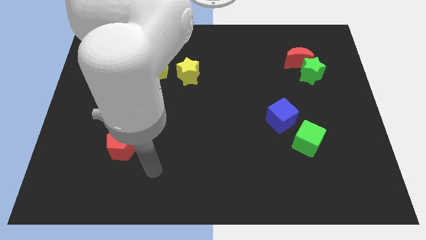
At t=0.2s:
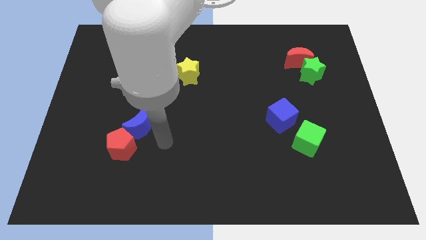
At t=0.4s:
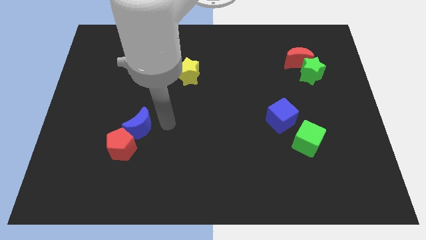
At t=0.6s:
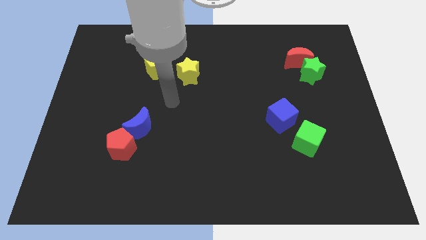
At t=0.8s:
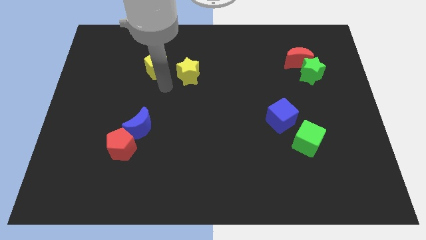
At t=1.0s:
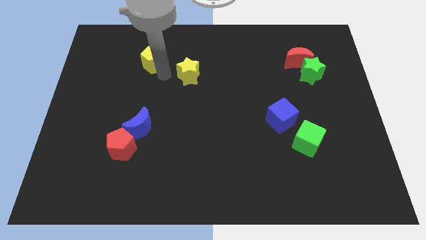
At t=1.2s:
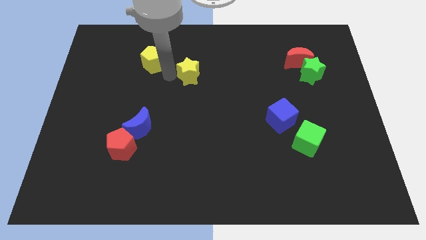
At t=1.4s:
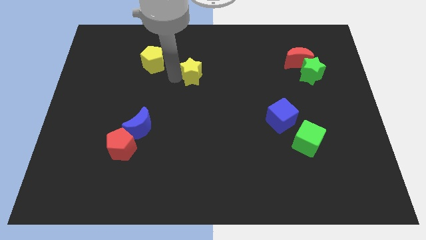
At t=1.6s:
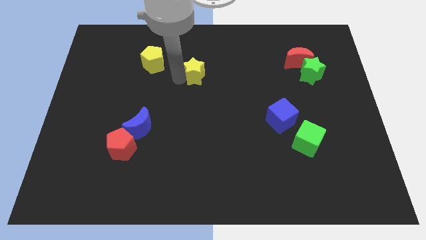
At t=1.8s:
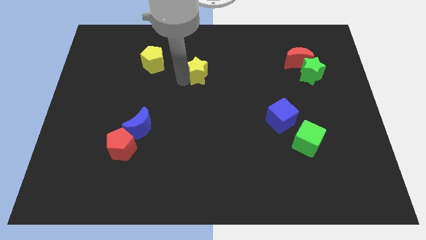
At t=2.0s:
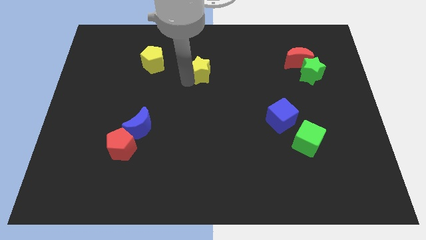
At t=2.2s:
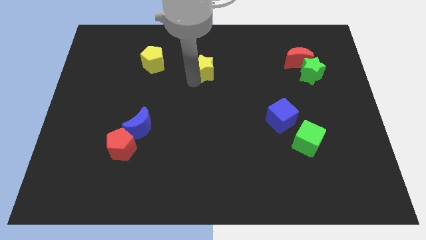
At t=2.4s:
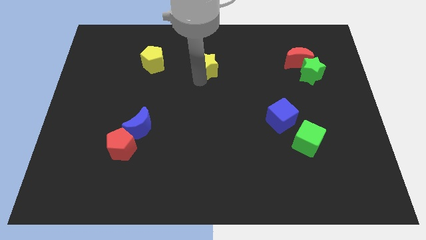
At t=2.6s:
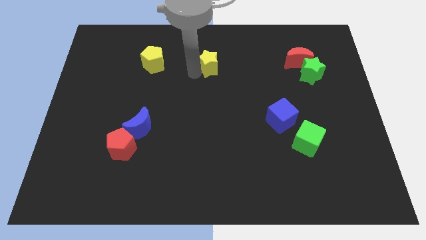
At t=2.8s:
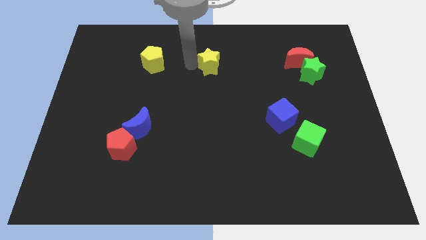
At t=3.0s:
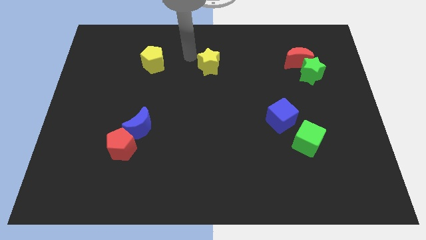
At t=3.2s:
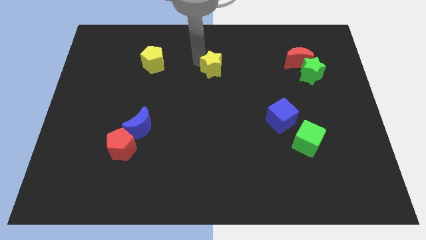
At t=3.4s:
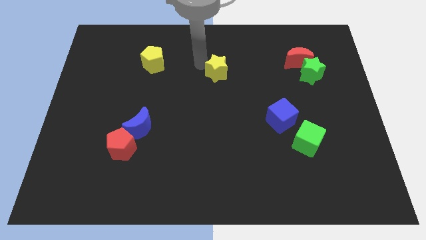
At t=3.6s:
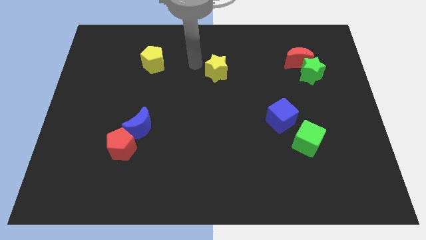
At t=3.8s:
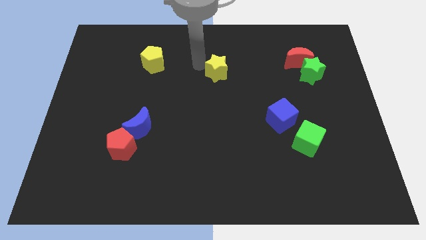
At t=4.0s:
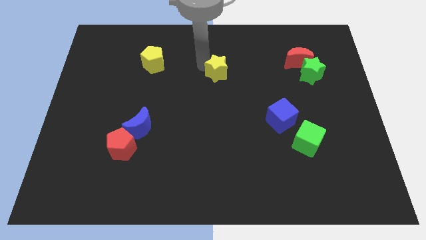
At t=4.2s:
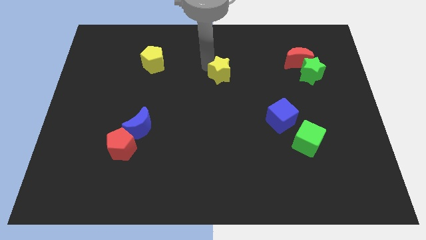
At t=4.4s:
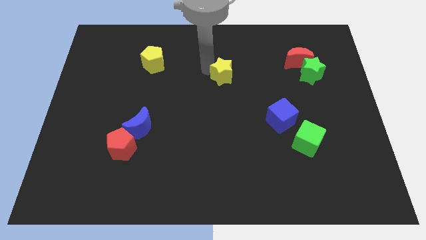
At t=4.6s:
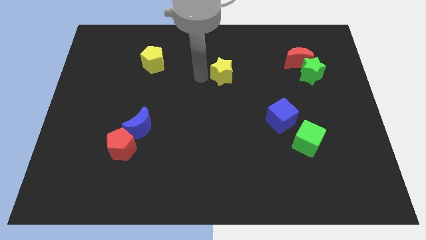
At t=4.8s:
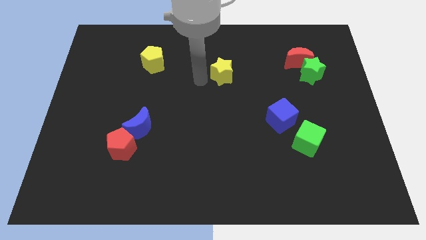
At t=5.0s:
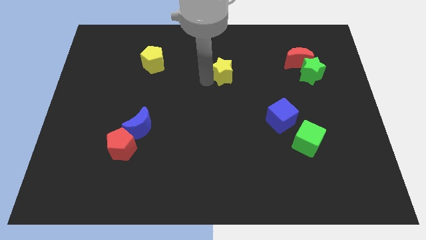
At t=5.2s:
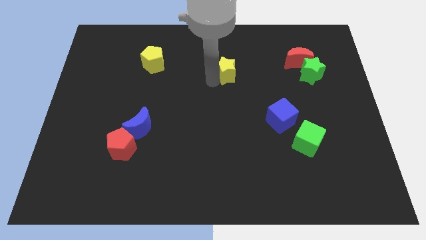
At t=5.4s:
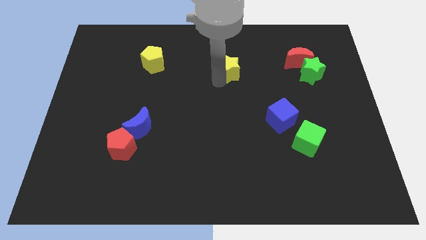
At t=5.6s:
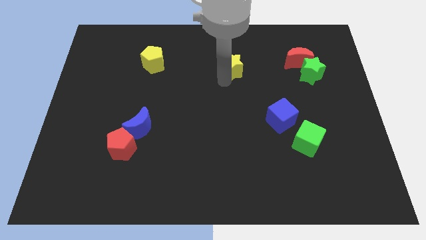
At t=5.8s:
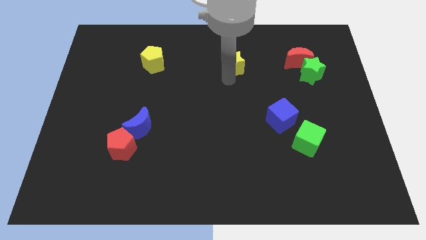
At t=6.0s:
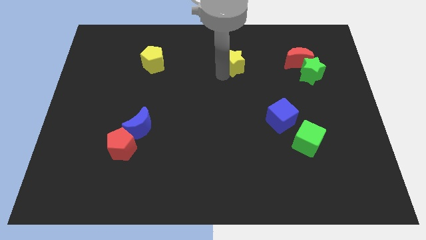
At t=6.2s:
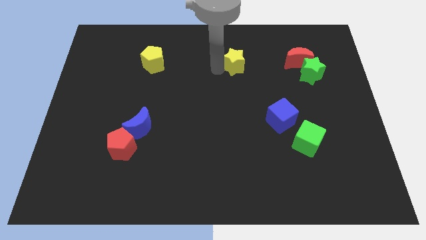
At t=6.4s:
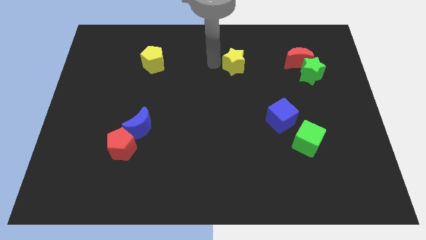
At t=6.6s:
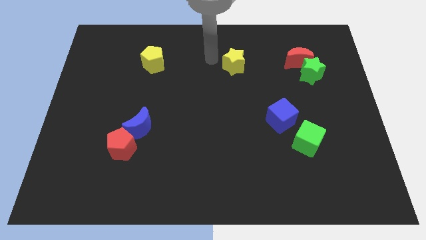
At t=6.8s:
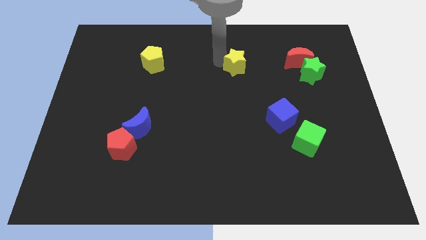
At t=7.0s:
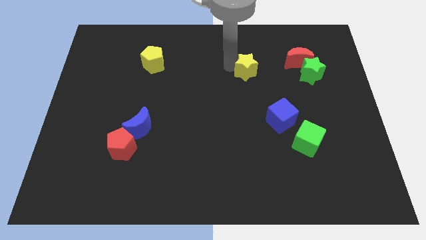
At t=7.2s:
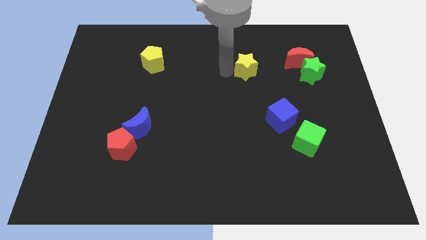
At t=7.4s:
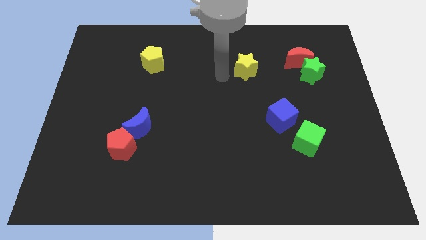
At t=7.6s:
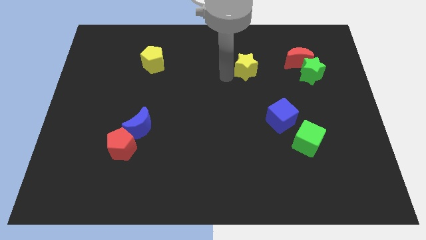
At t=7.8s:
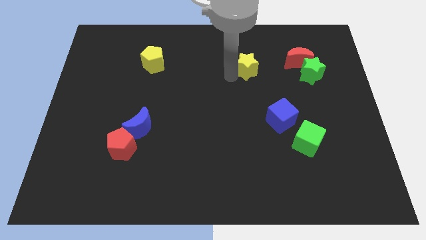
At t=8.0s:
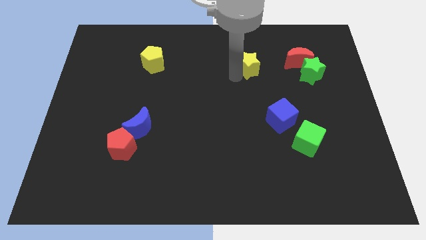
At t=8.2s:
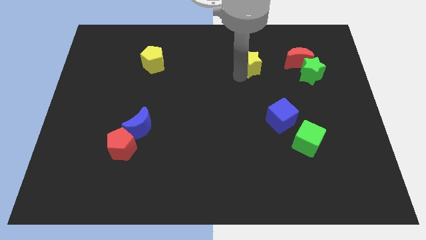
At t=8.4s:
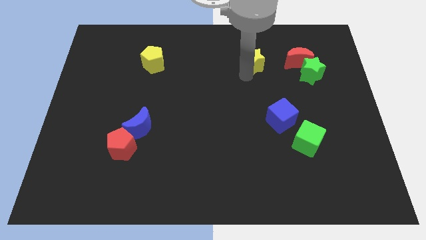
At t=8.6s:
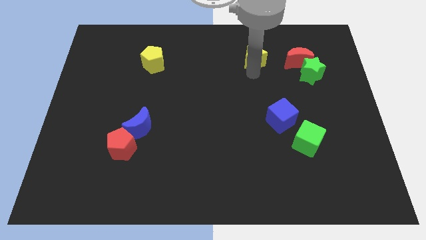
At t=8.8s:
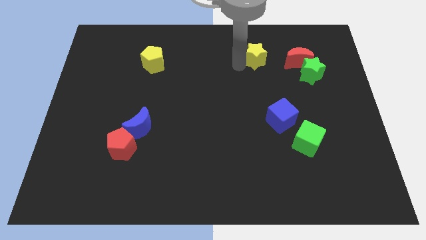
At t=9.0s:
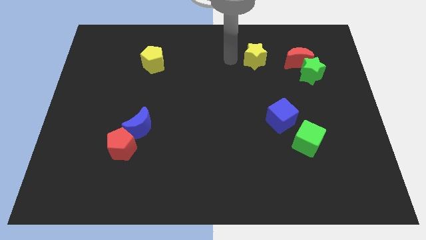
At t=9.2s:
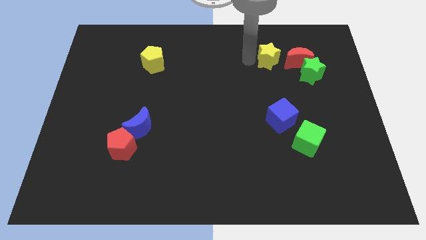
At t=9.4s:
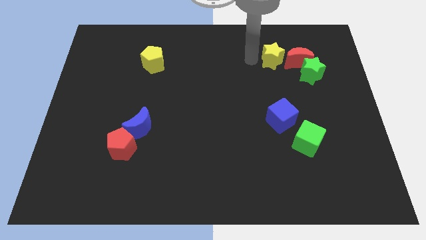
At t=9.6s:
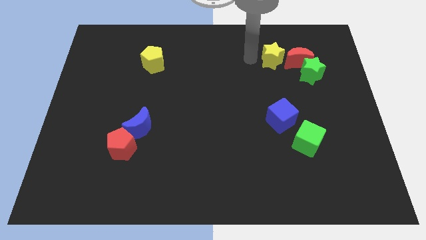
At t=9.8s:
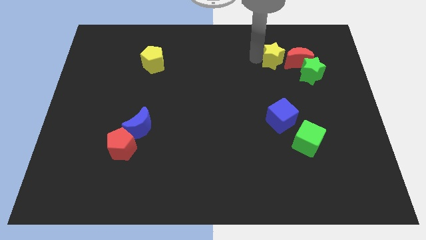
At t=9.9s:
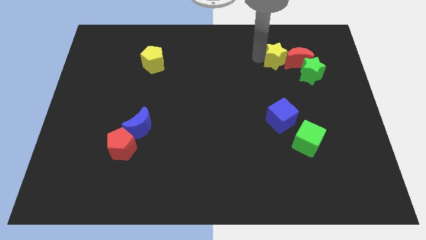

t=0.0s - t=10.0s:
put the yellow star towards the red moon

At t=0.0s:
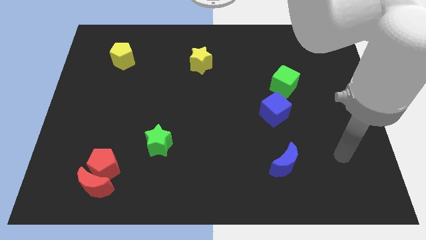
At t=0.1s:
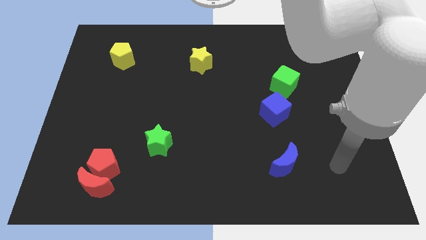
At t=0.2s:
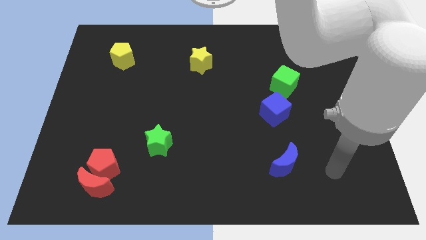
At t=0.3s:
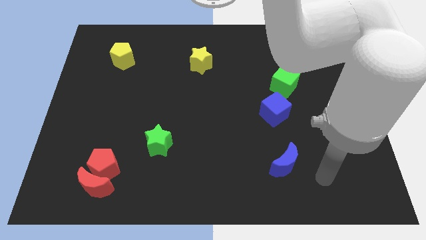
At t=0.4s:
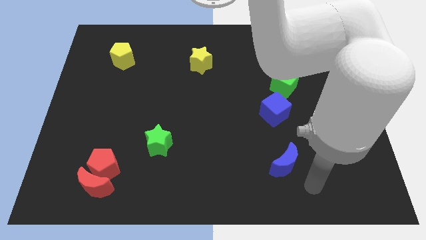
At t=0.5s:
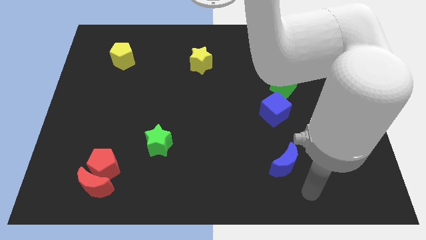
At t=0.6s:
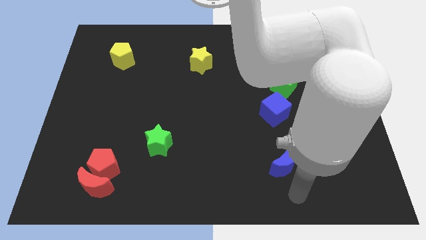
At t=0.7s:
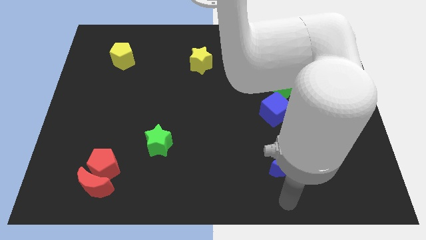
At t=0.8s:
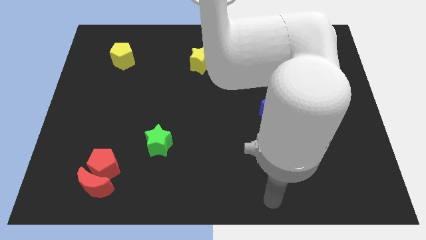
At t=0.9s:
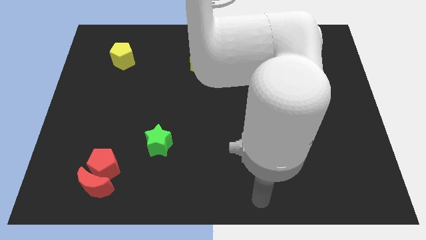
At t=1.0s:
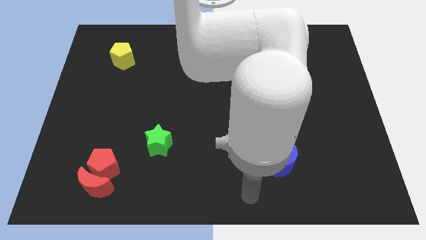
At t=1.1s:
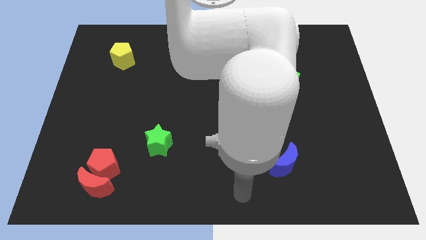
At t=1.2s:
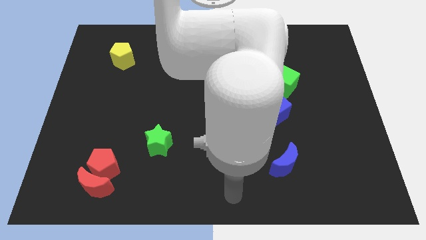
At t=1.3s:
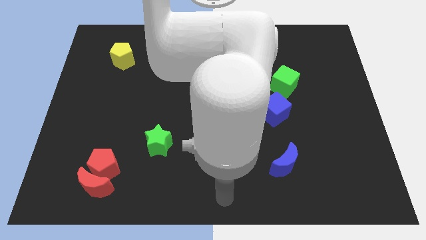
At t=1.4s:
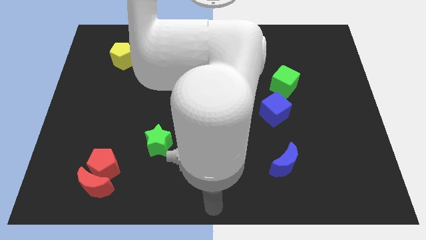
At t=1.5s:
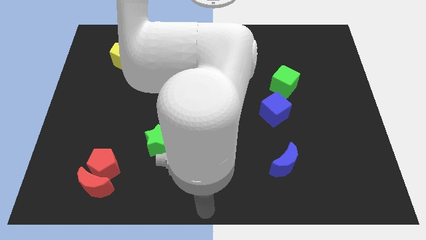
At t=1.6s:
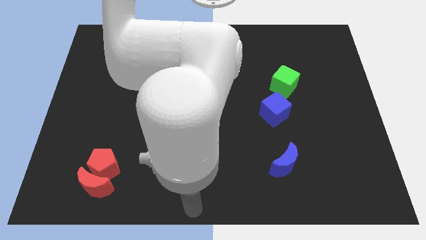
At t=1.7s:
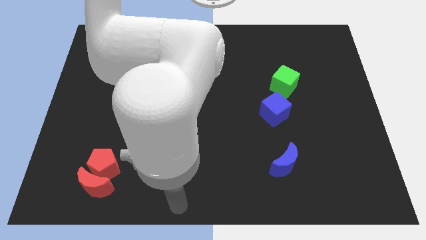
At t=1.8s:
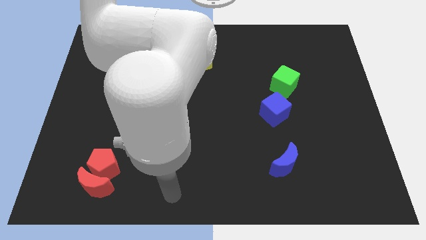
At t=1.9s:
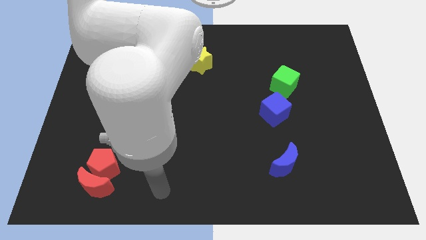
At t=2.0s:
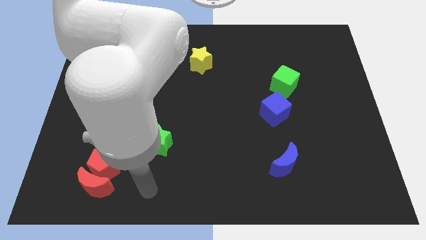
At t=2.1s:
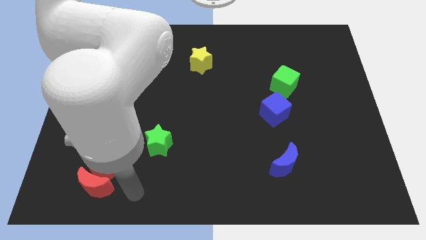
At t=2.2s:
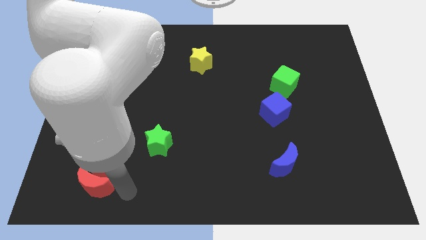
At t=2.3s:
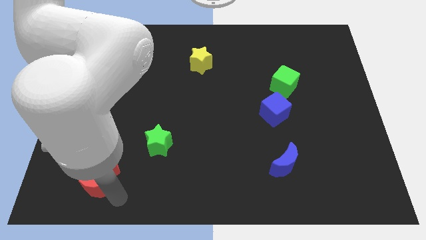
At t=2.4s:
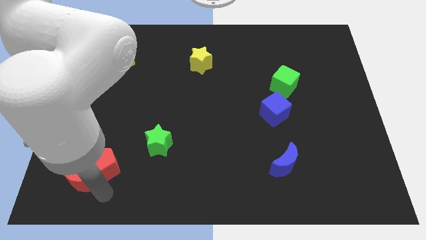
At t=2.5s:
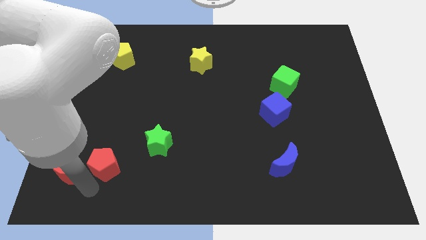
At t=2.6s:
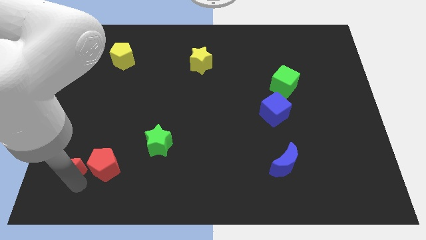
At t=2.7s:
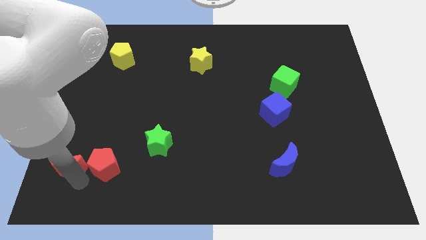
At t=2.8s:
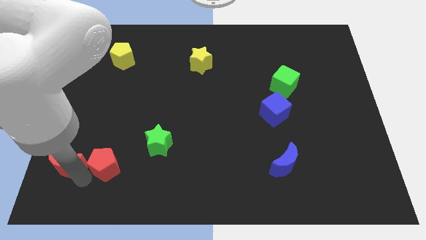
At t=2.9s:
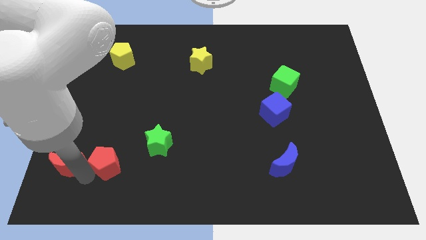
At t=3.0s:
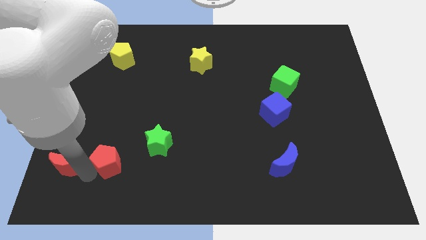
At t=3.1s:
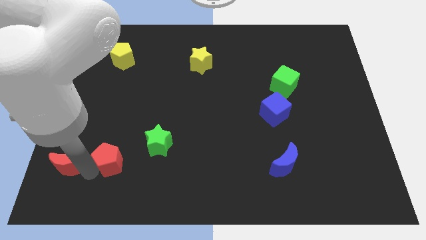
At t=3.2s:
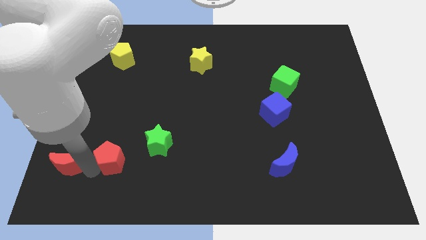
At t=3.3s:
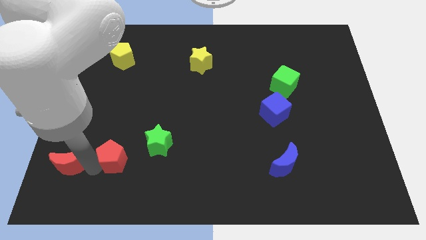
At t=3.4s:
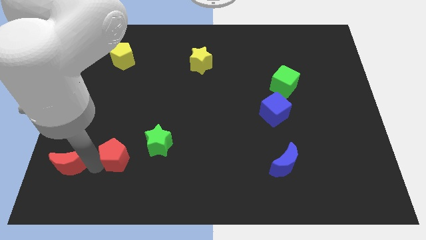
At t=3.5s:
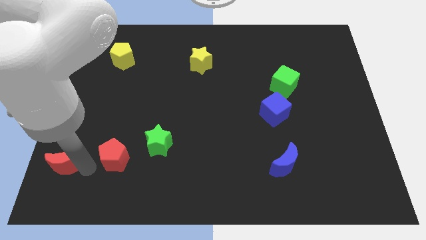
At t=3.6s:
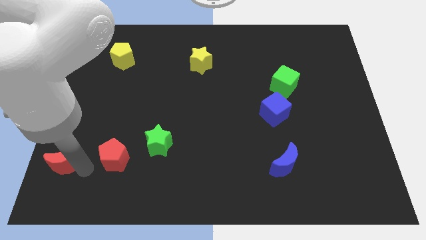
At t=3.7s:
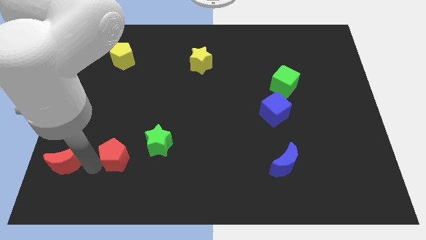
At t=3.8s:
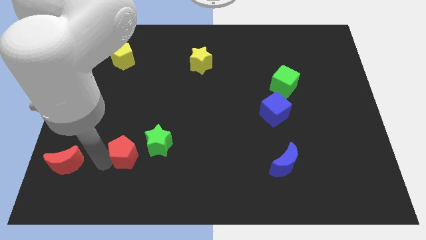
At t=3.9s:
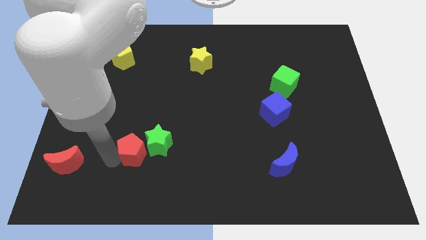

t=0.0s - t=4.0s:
put the red pentagon next to the green star
